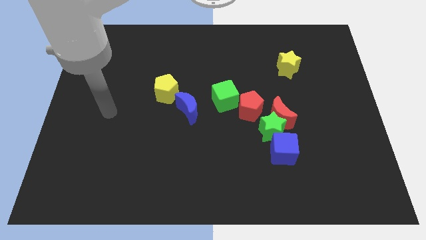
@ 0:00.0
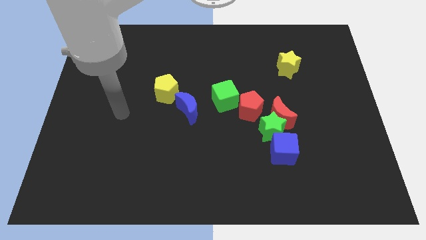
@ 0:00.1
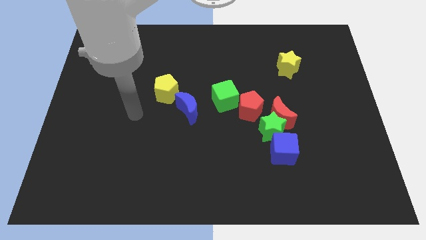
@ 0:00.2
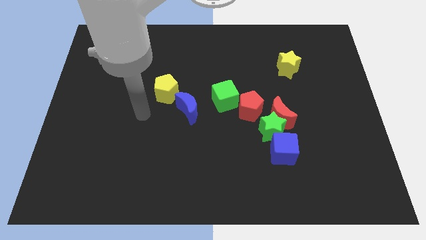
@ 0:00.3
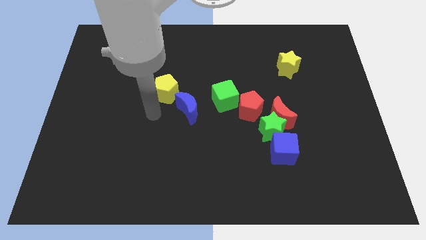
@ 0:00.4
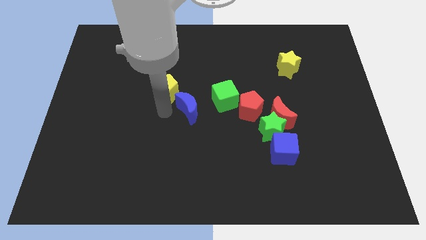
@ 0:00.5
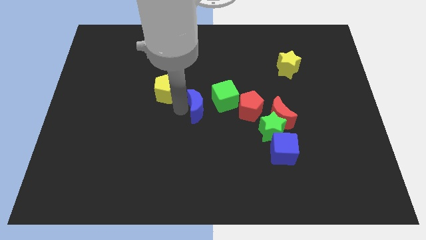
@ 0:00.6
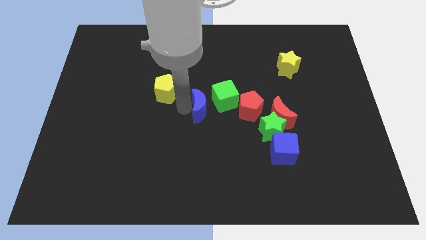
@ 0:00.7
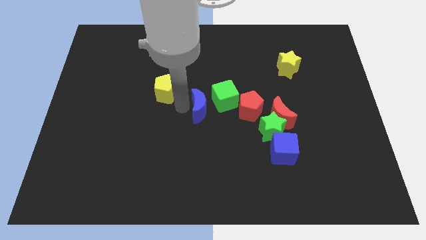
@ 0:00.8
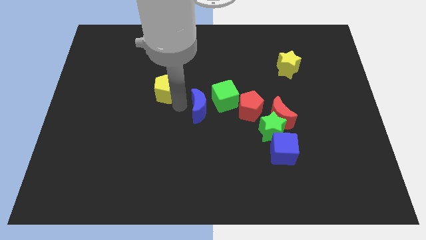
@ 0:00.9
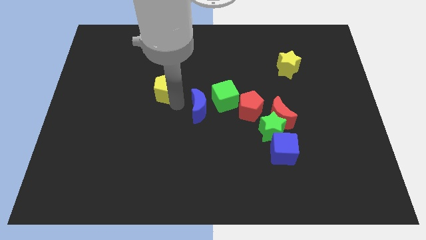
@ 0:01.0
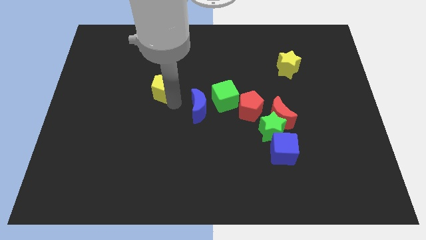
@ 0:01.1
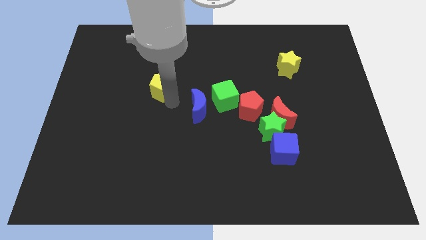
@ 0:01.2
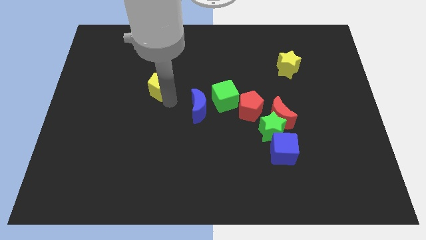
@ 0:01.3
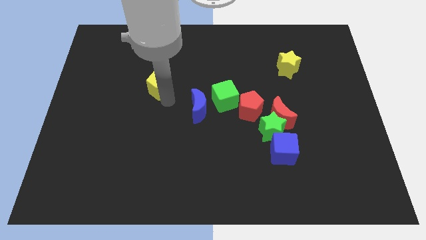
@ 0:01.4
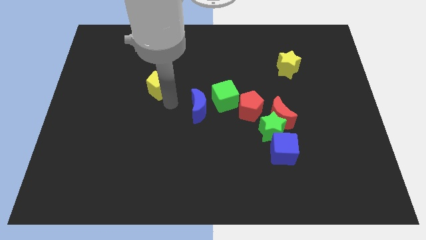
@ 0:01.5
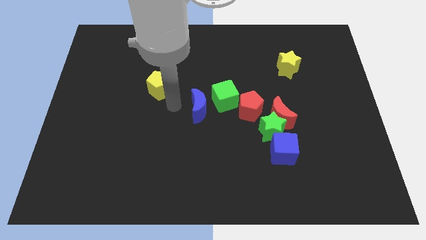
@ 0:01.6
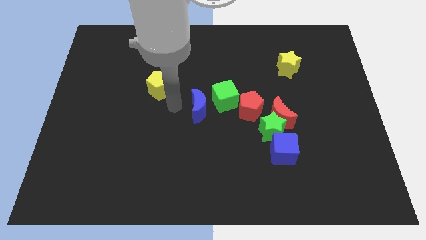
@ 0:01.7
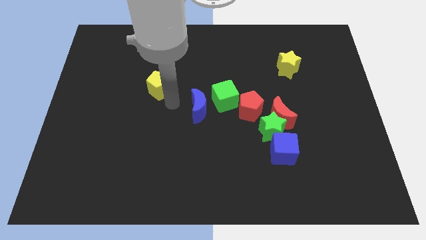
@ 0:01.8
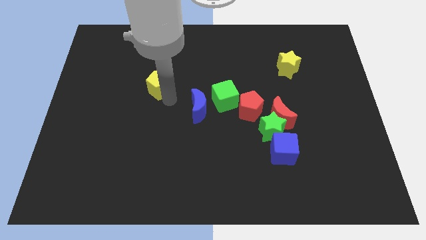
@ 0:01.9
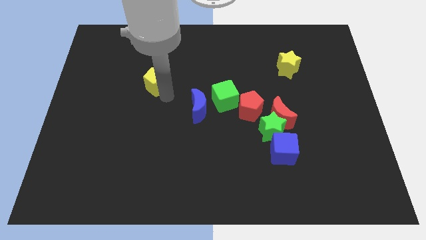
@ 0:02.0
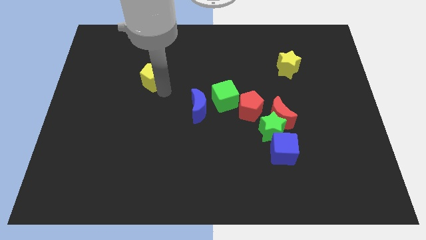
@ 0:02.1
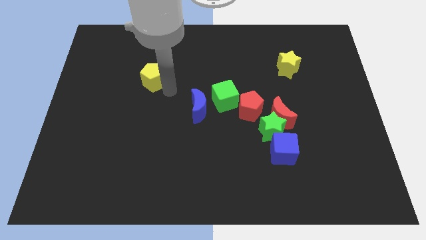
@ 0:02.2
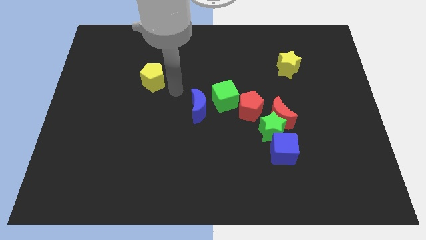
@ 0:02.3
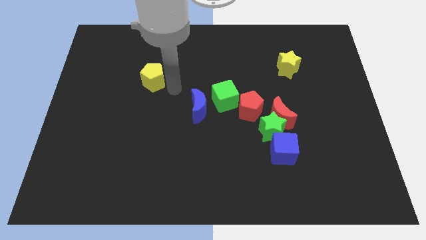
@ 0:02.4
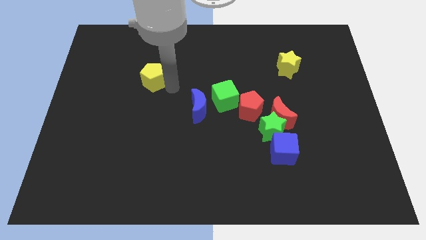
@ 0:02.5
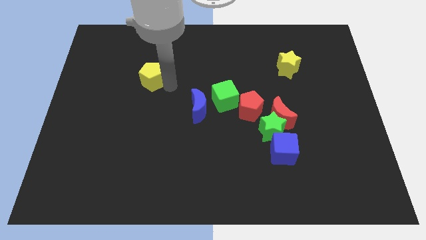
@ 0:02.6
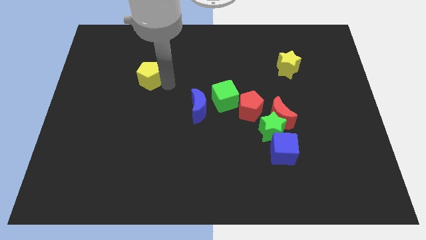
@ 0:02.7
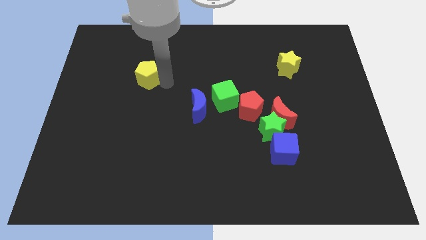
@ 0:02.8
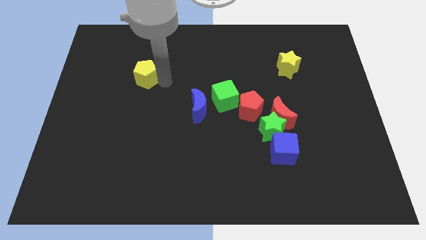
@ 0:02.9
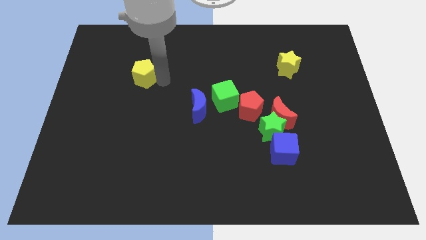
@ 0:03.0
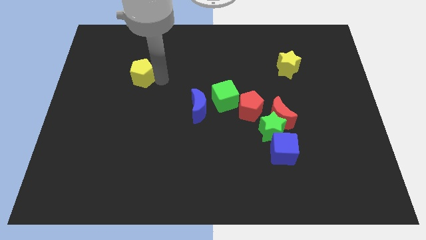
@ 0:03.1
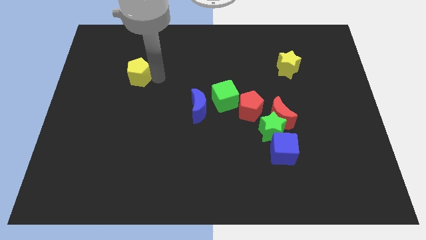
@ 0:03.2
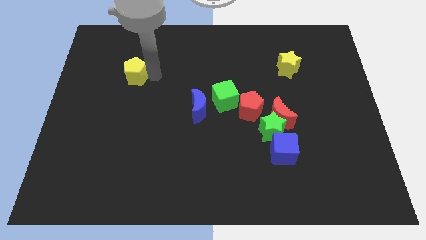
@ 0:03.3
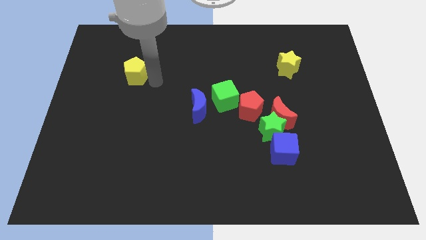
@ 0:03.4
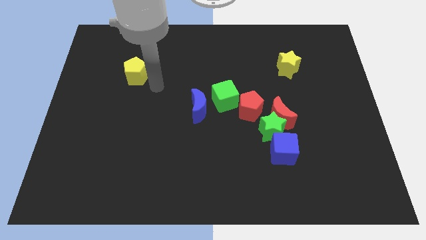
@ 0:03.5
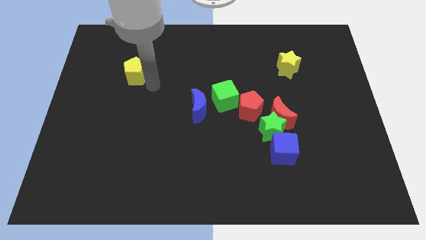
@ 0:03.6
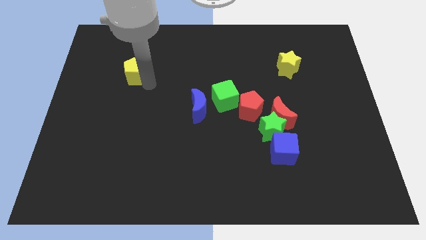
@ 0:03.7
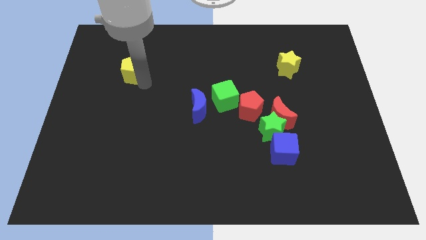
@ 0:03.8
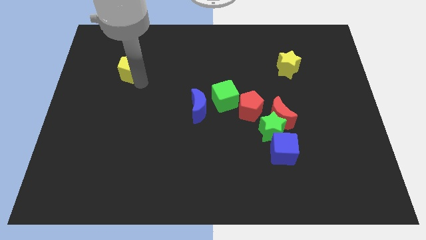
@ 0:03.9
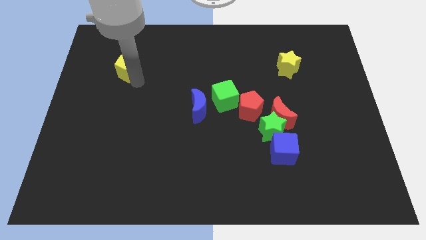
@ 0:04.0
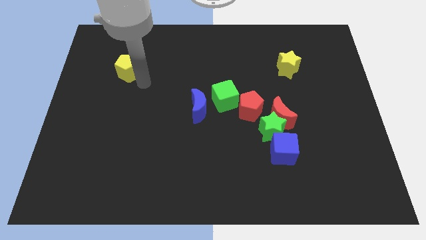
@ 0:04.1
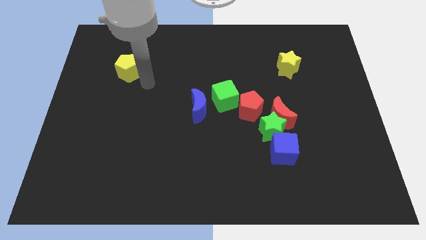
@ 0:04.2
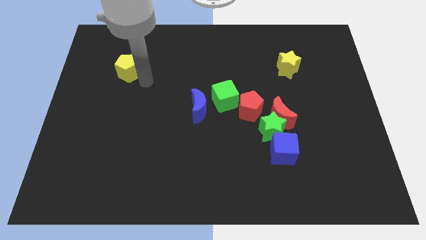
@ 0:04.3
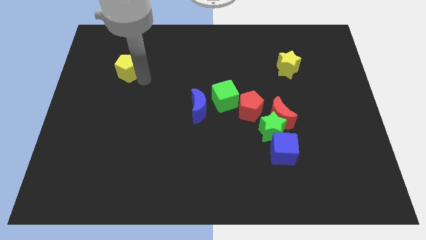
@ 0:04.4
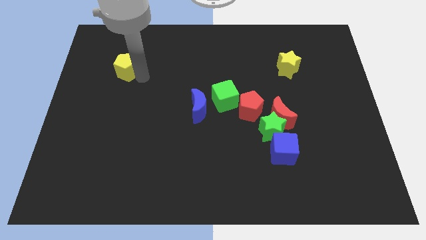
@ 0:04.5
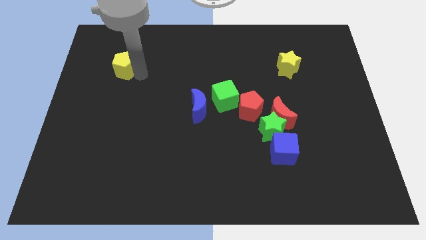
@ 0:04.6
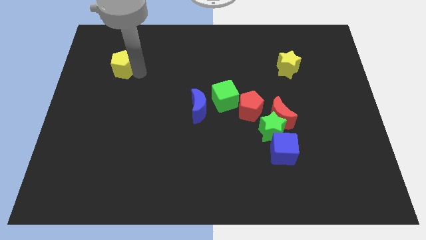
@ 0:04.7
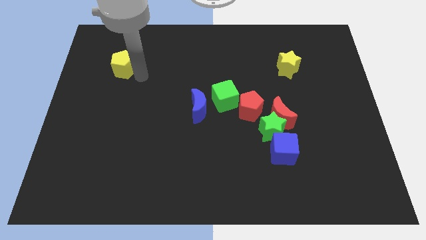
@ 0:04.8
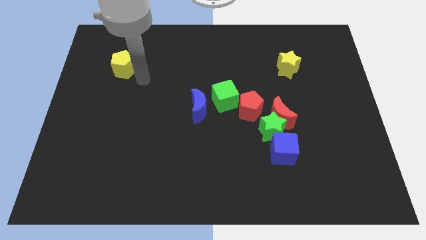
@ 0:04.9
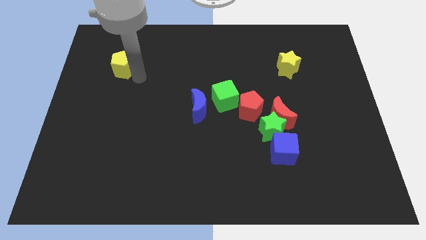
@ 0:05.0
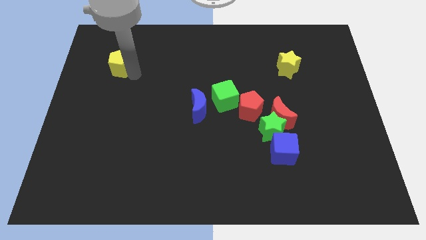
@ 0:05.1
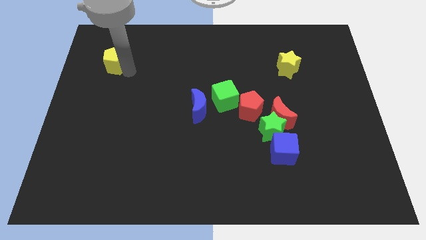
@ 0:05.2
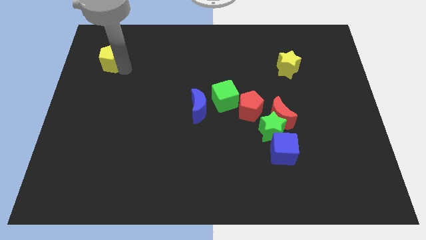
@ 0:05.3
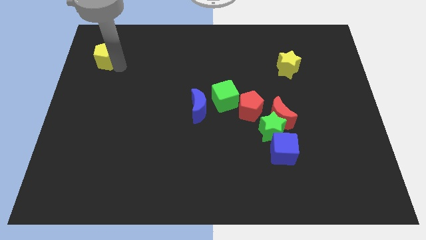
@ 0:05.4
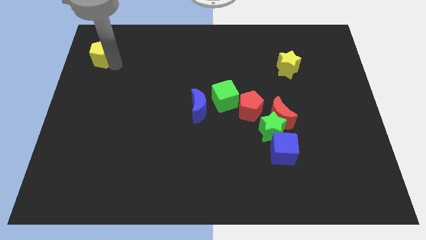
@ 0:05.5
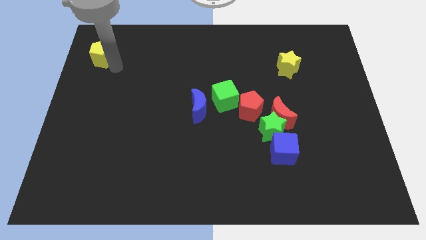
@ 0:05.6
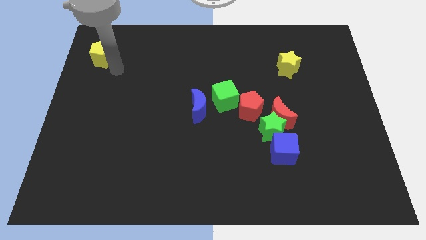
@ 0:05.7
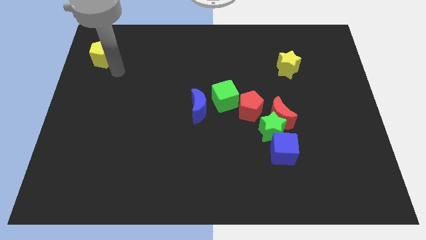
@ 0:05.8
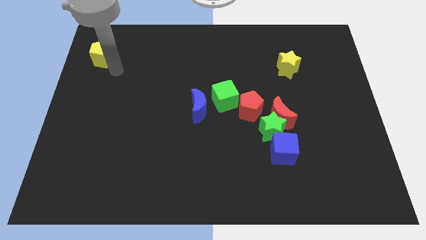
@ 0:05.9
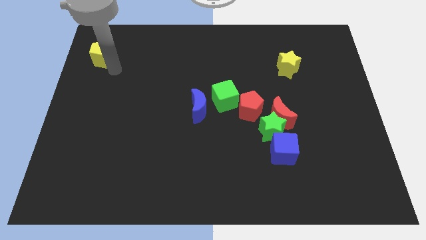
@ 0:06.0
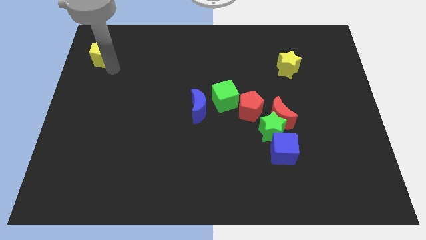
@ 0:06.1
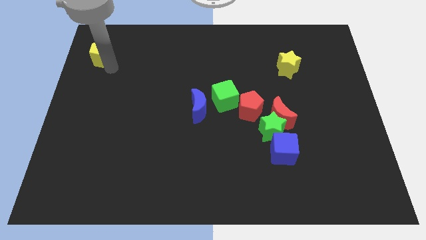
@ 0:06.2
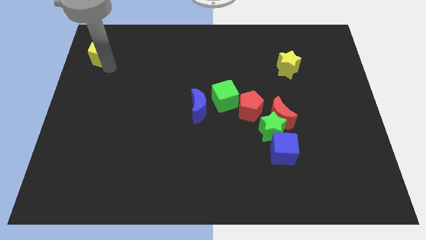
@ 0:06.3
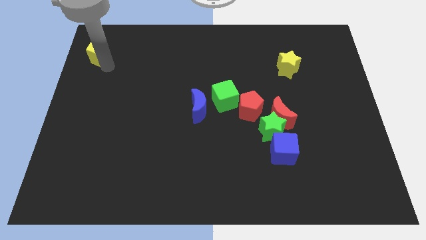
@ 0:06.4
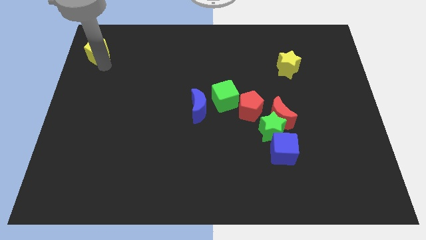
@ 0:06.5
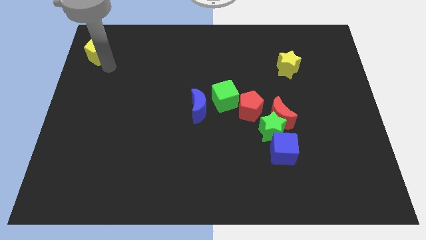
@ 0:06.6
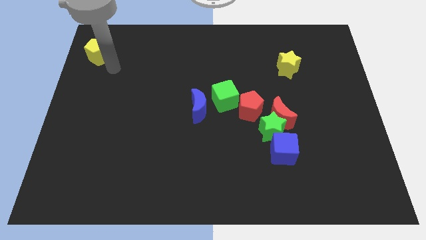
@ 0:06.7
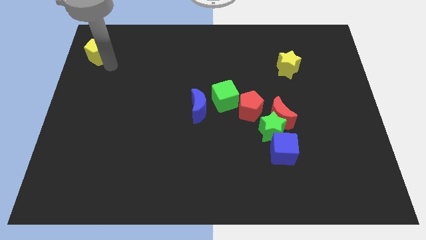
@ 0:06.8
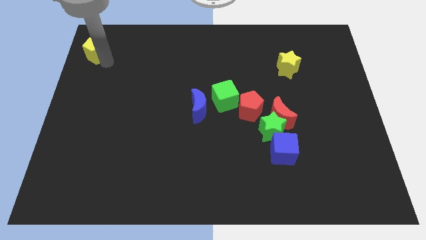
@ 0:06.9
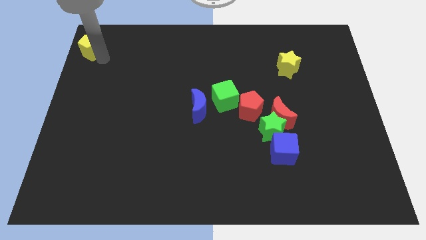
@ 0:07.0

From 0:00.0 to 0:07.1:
put the yellow pentagon to the top left corner
